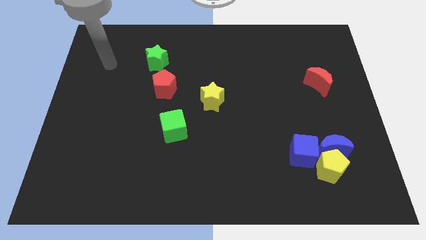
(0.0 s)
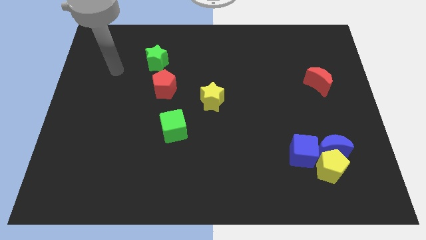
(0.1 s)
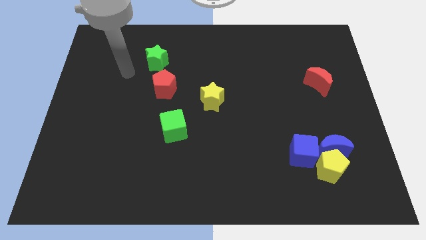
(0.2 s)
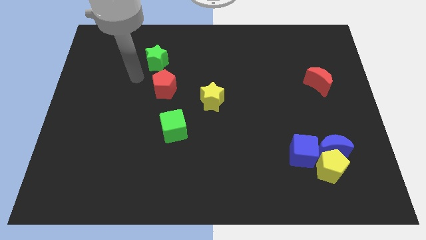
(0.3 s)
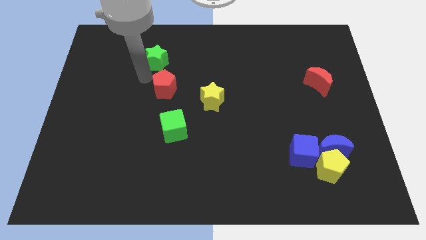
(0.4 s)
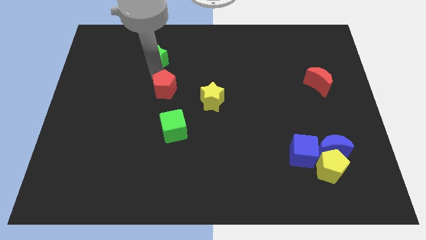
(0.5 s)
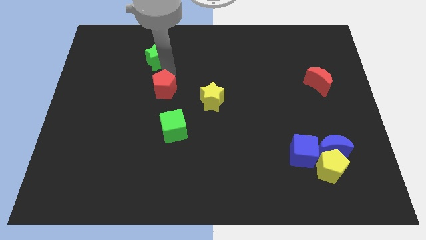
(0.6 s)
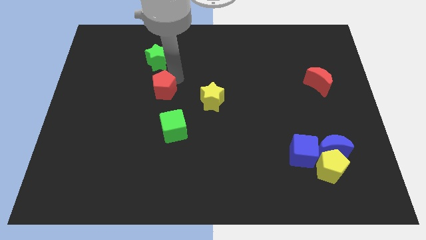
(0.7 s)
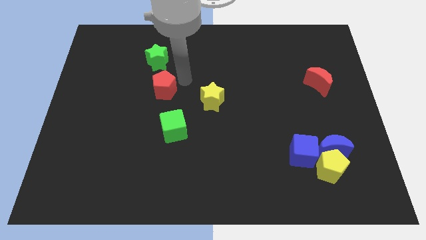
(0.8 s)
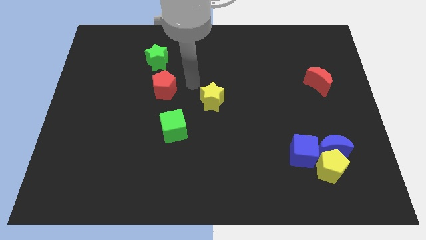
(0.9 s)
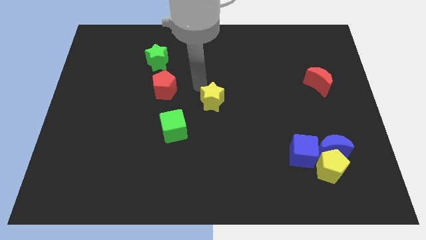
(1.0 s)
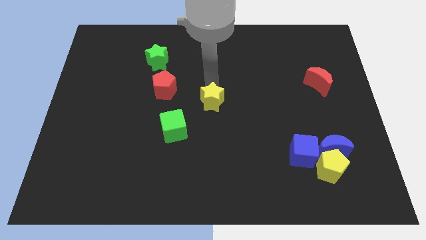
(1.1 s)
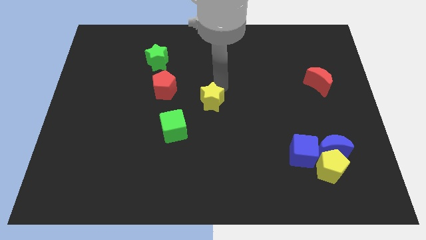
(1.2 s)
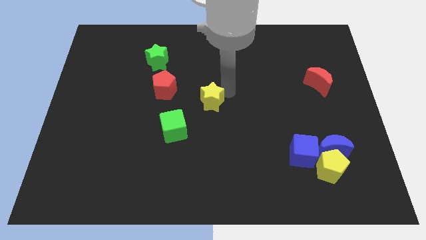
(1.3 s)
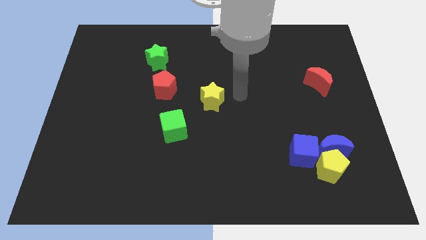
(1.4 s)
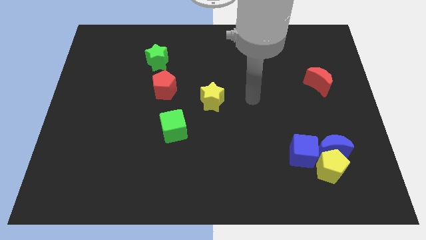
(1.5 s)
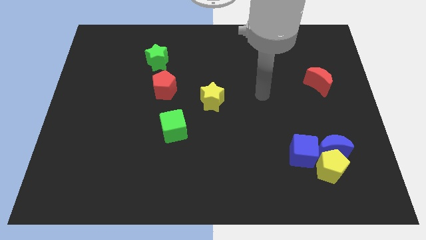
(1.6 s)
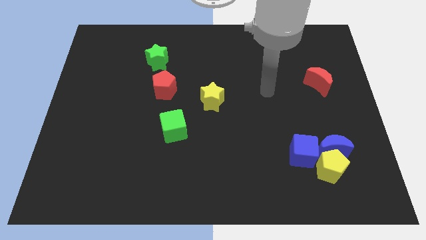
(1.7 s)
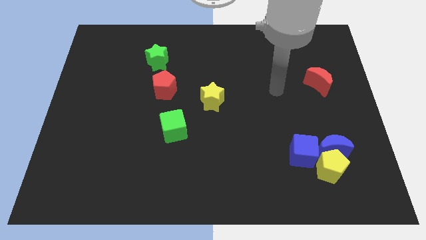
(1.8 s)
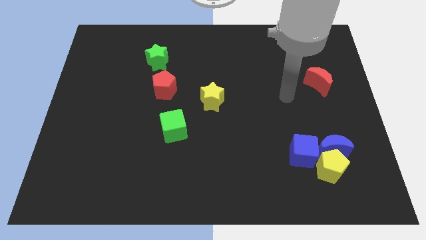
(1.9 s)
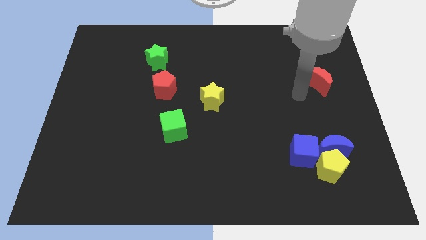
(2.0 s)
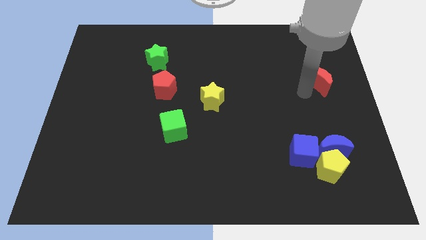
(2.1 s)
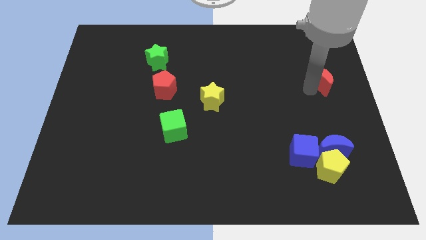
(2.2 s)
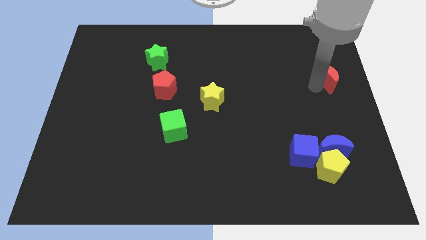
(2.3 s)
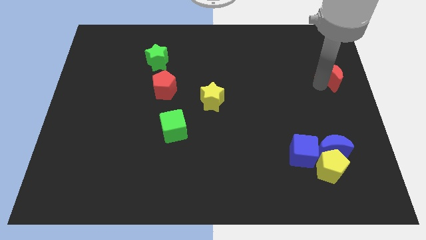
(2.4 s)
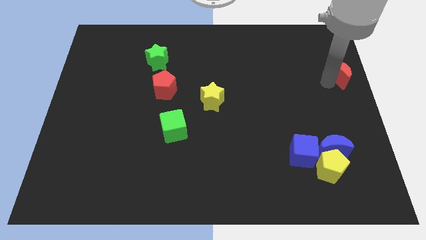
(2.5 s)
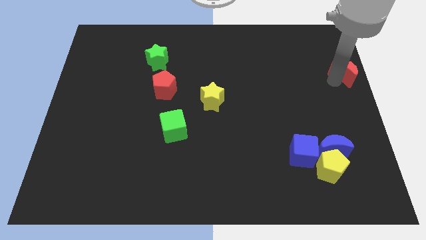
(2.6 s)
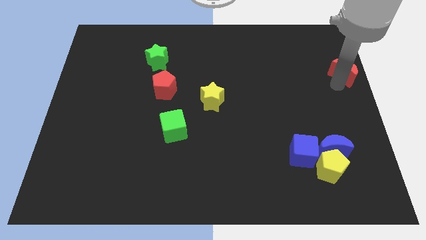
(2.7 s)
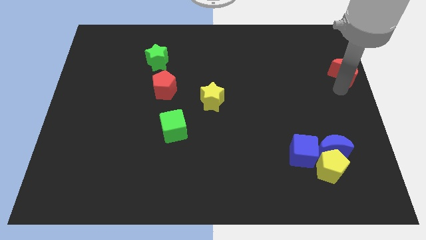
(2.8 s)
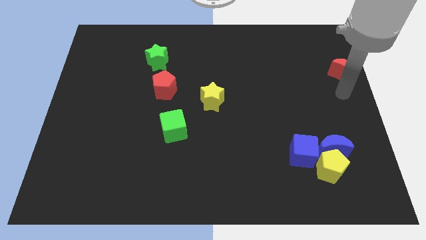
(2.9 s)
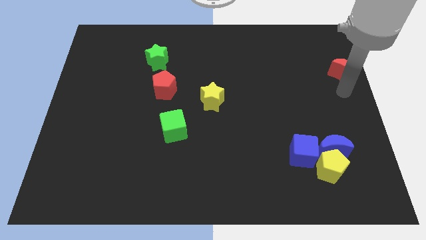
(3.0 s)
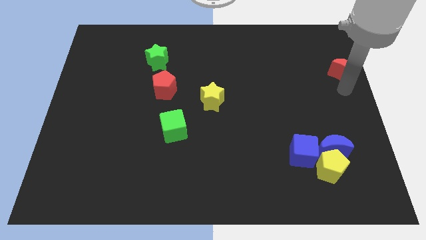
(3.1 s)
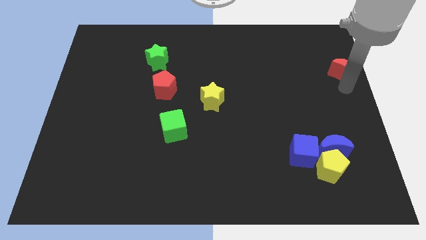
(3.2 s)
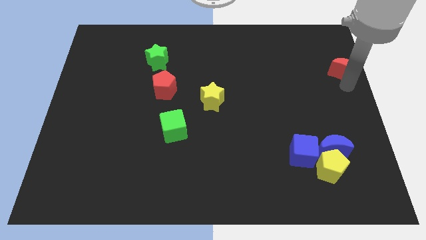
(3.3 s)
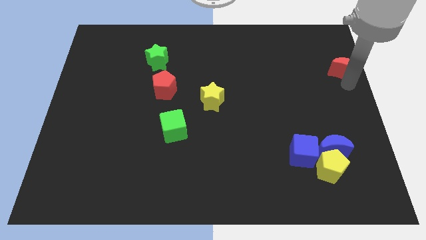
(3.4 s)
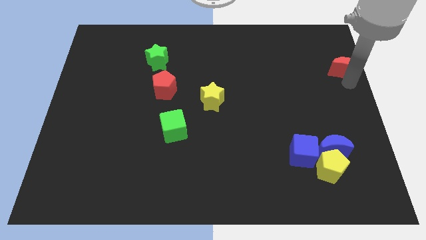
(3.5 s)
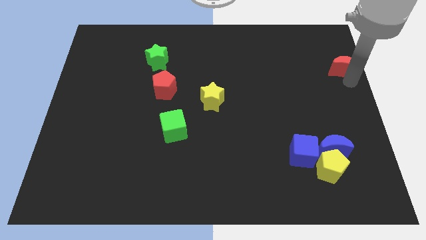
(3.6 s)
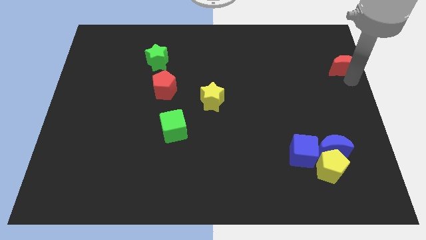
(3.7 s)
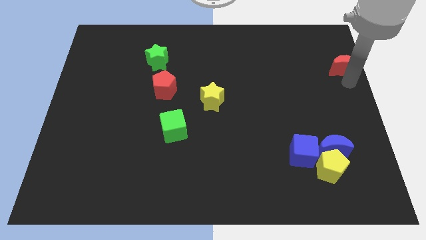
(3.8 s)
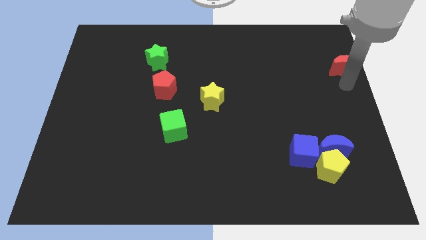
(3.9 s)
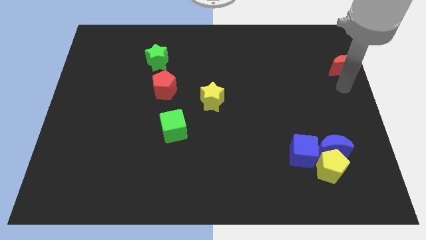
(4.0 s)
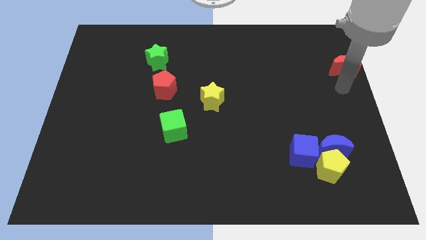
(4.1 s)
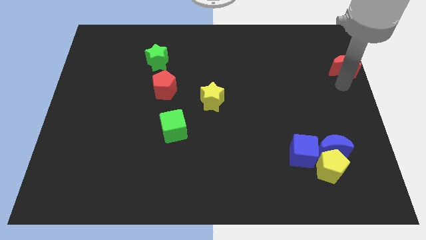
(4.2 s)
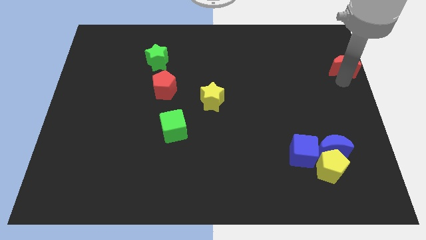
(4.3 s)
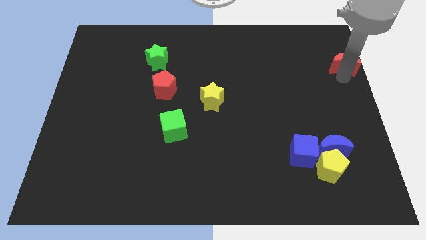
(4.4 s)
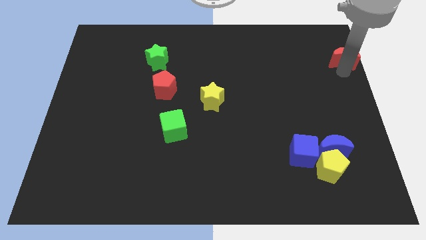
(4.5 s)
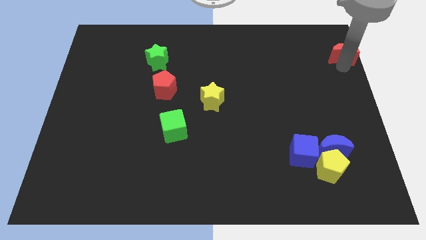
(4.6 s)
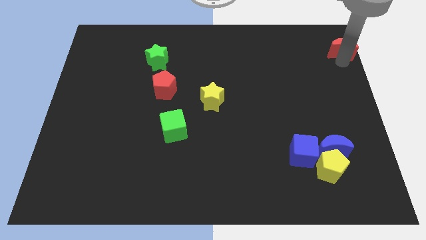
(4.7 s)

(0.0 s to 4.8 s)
slide the red moon to the top right

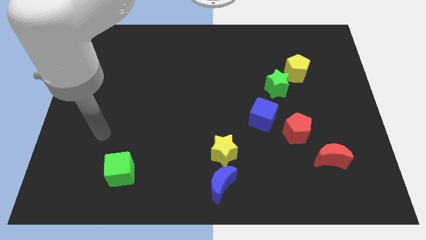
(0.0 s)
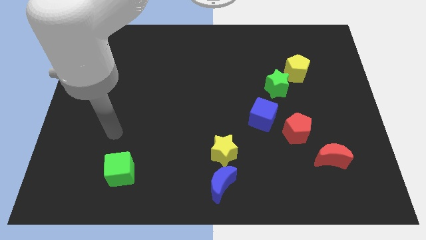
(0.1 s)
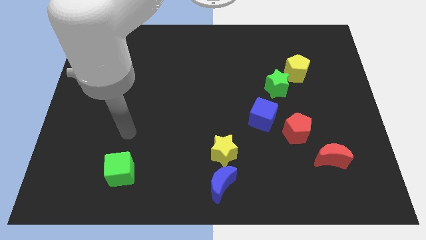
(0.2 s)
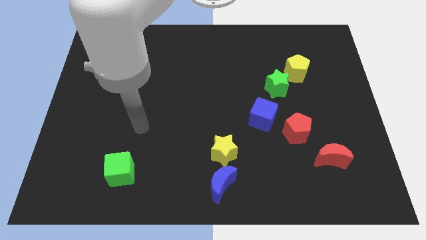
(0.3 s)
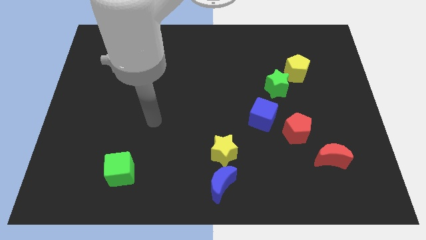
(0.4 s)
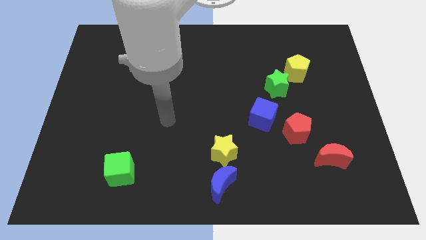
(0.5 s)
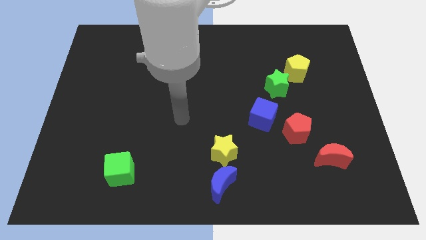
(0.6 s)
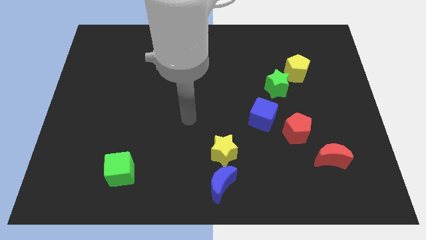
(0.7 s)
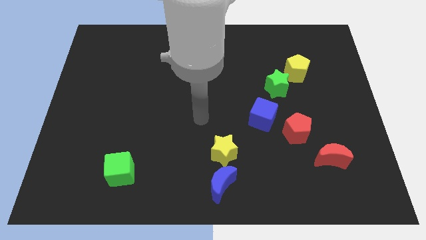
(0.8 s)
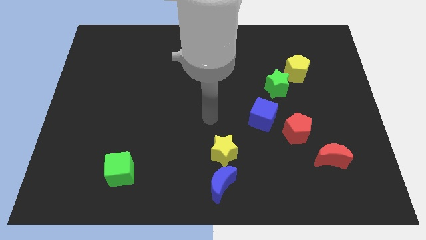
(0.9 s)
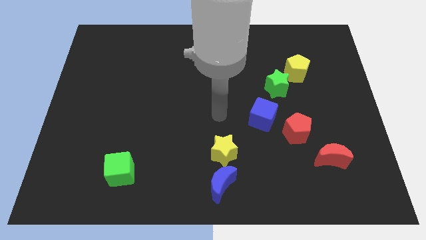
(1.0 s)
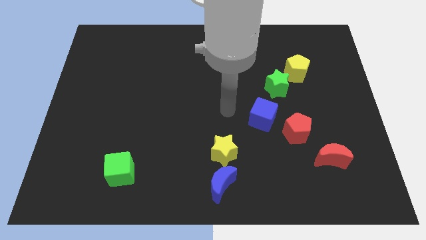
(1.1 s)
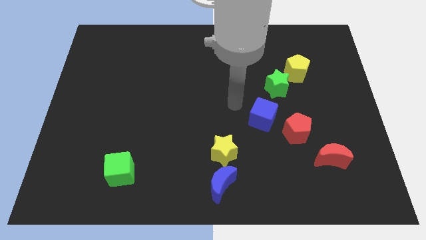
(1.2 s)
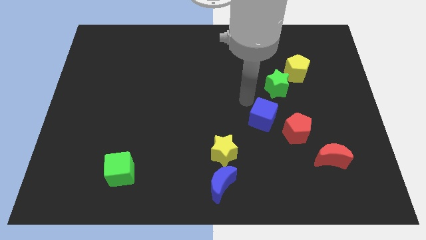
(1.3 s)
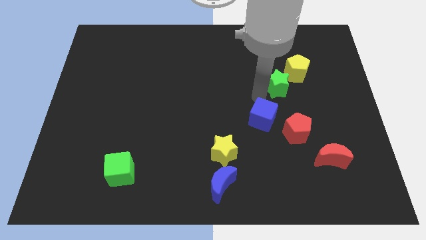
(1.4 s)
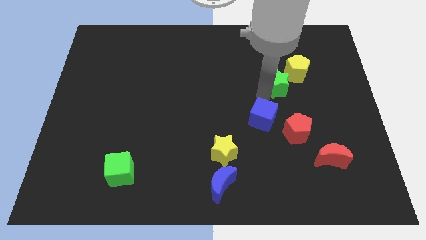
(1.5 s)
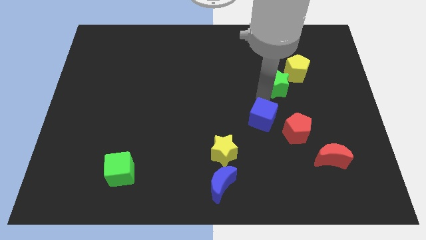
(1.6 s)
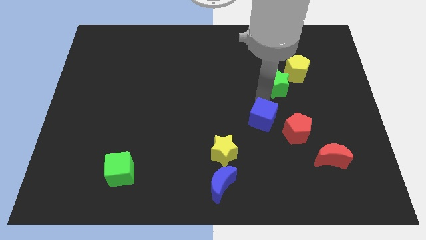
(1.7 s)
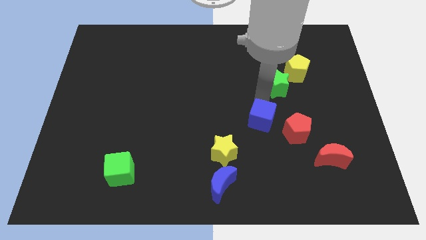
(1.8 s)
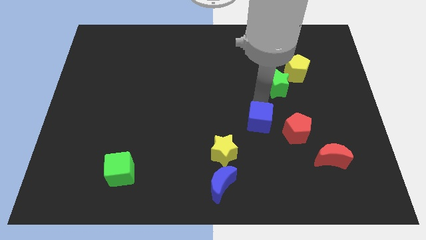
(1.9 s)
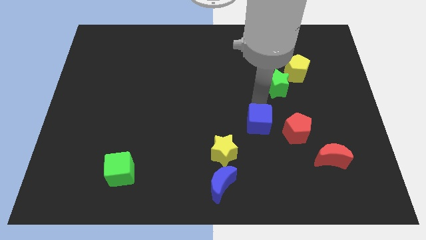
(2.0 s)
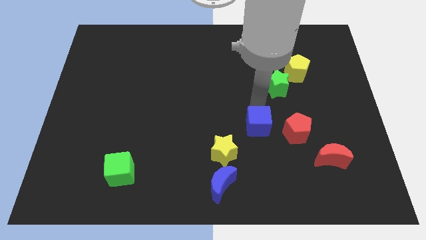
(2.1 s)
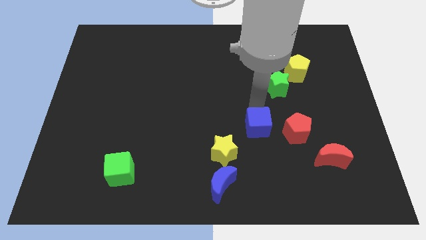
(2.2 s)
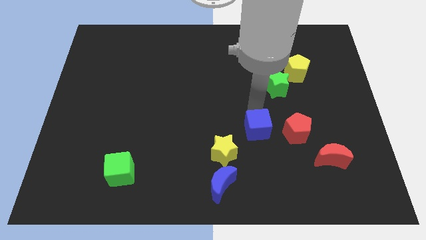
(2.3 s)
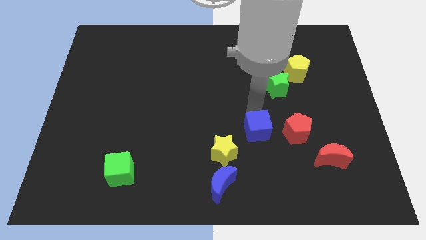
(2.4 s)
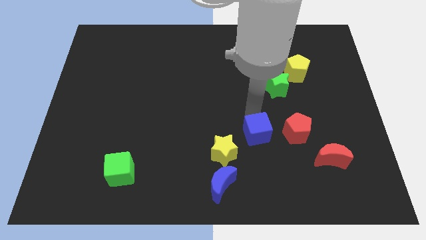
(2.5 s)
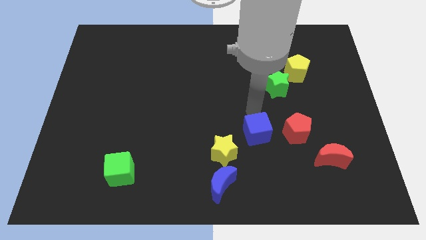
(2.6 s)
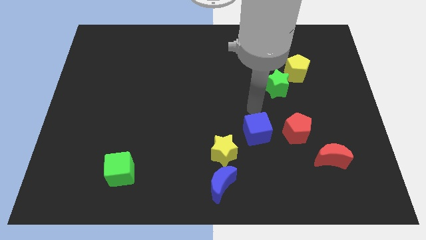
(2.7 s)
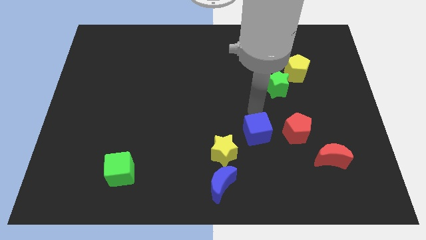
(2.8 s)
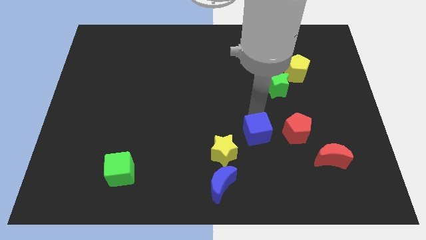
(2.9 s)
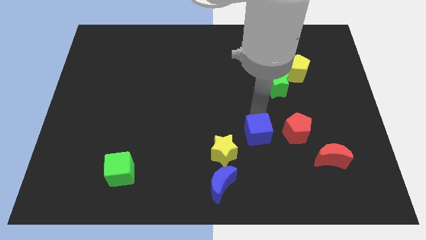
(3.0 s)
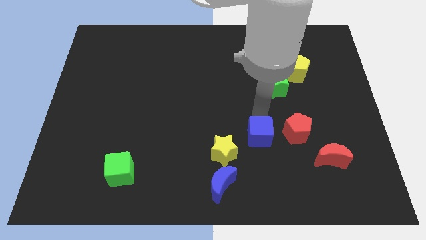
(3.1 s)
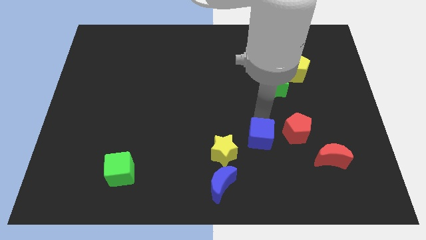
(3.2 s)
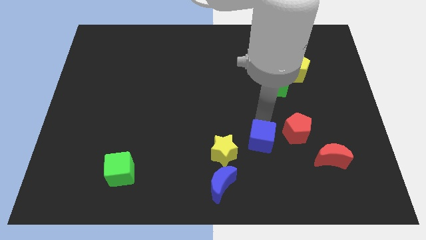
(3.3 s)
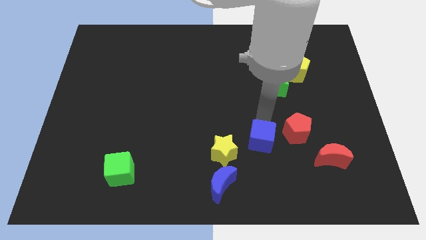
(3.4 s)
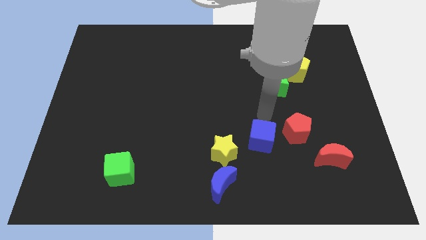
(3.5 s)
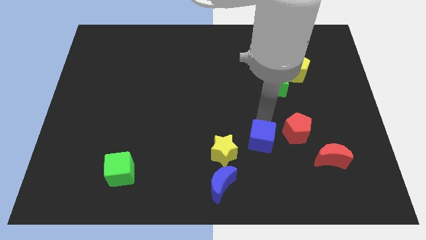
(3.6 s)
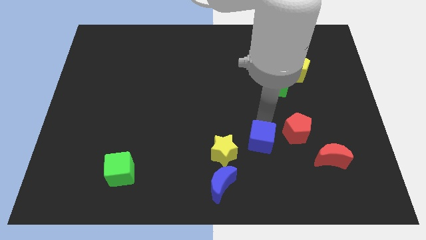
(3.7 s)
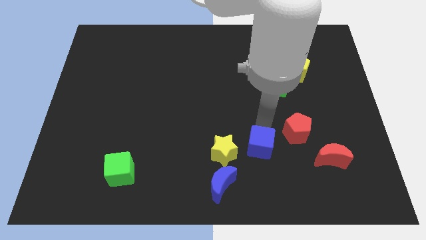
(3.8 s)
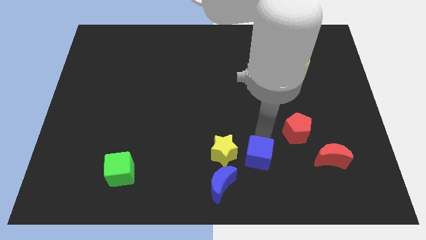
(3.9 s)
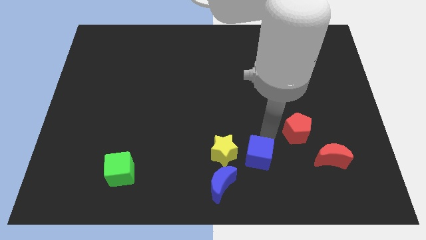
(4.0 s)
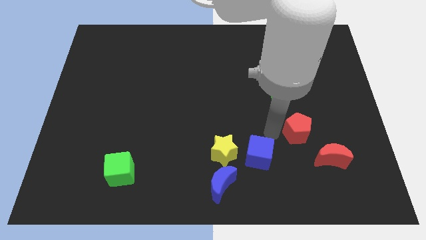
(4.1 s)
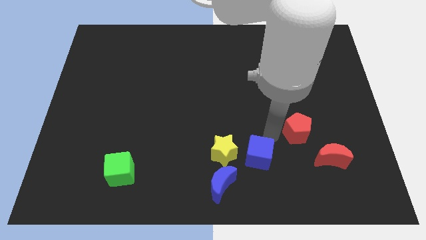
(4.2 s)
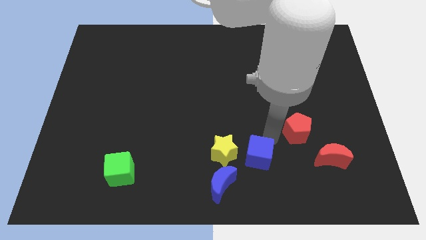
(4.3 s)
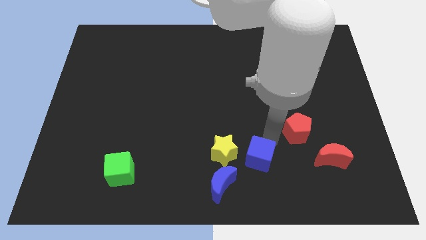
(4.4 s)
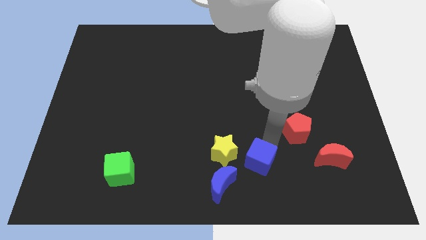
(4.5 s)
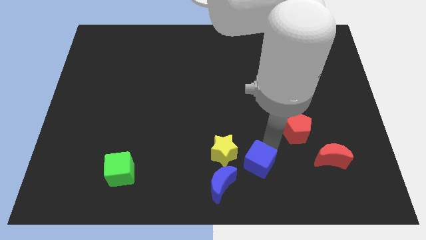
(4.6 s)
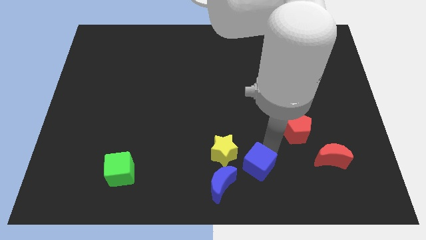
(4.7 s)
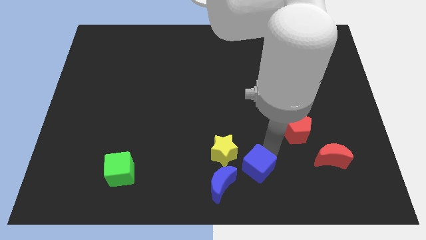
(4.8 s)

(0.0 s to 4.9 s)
push the blue cube to the bottom
